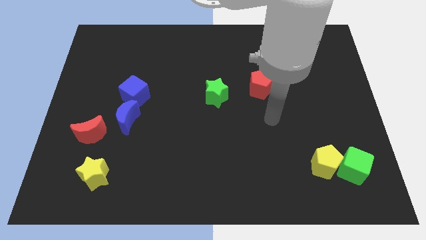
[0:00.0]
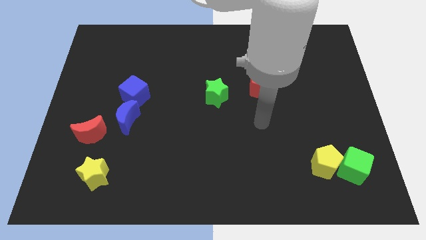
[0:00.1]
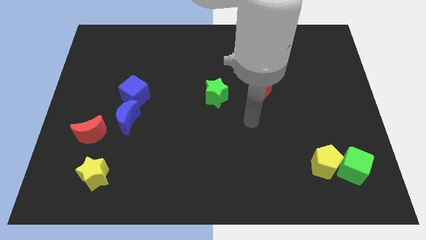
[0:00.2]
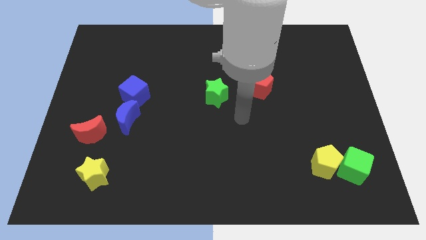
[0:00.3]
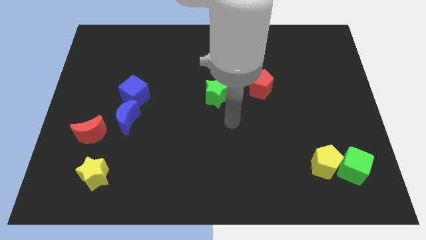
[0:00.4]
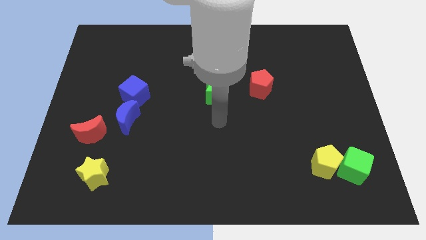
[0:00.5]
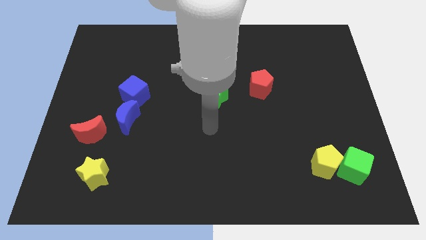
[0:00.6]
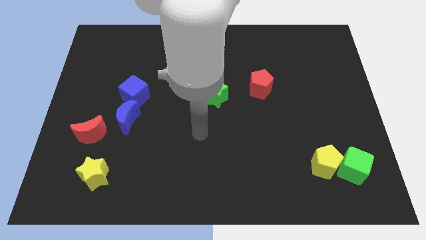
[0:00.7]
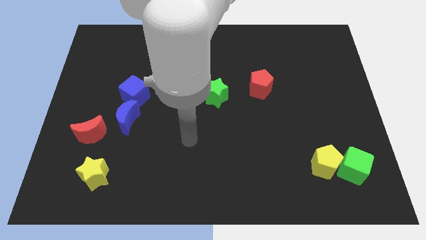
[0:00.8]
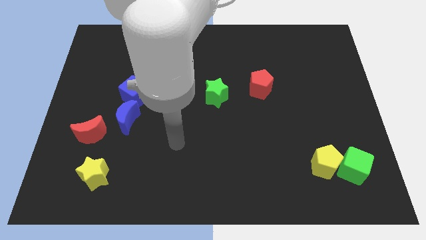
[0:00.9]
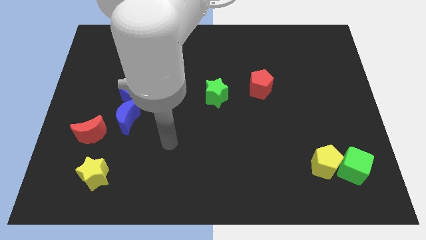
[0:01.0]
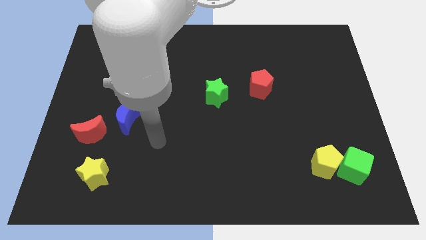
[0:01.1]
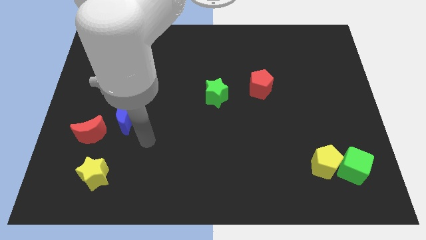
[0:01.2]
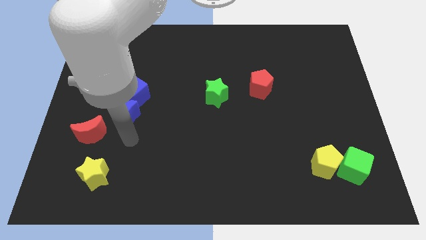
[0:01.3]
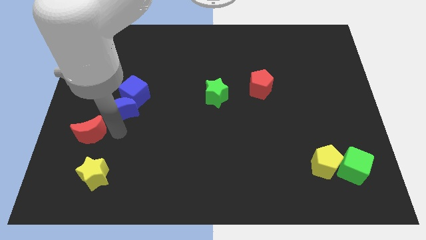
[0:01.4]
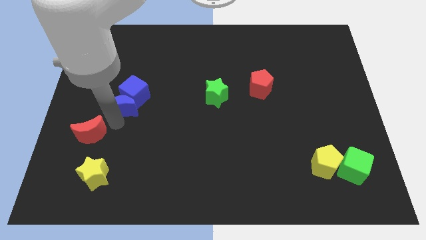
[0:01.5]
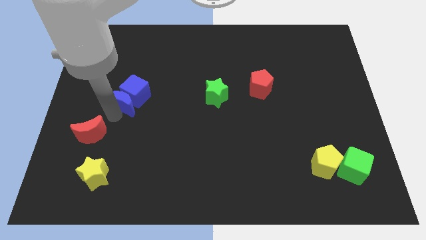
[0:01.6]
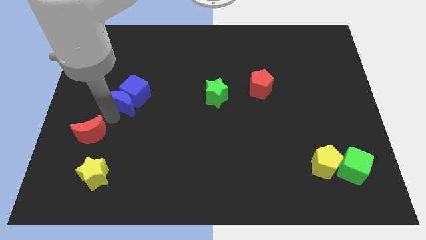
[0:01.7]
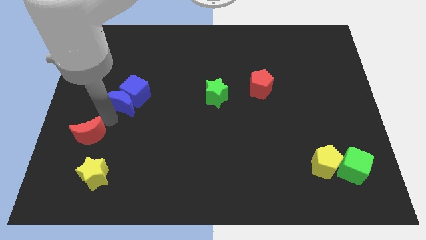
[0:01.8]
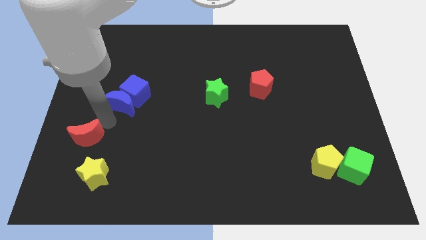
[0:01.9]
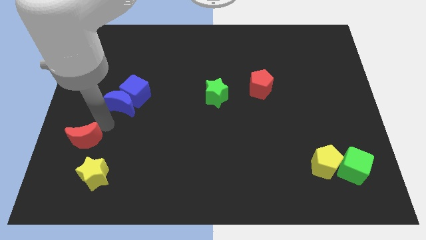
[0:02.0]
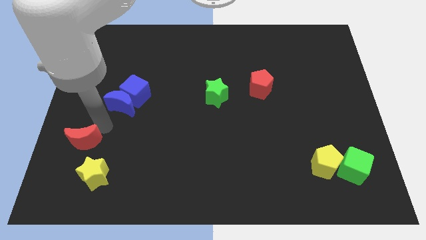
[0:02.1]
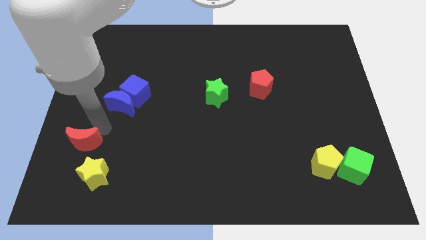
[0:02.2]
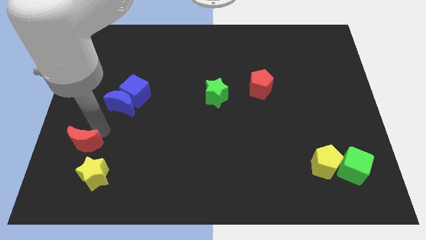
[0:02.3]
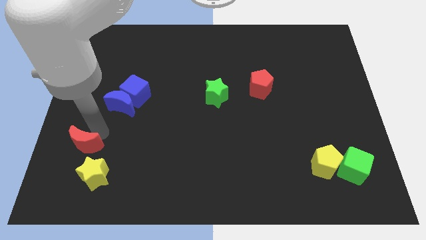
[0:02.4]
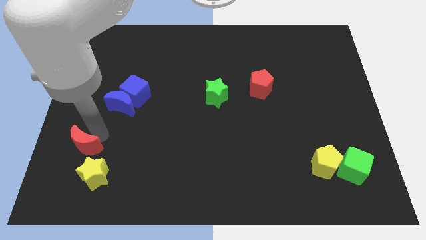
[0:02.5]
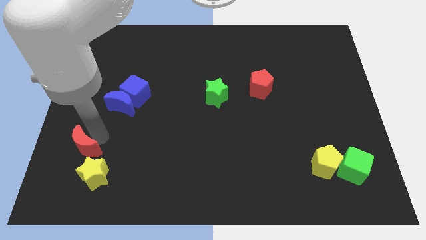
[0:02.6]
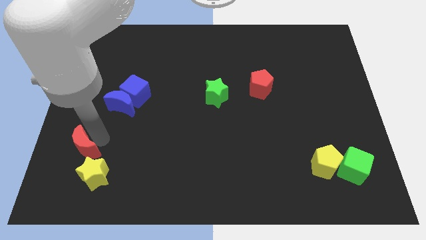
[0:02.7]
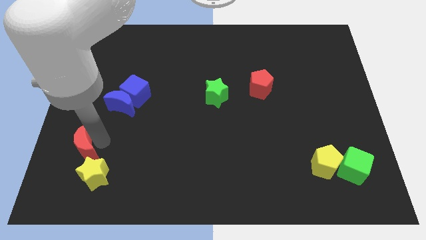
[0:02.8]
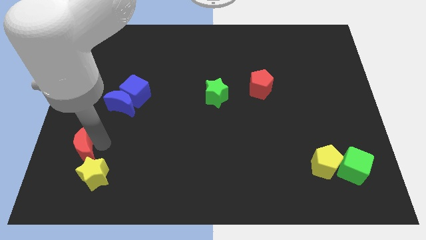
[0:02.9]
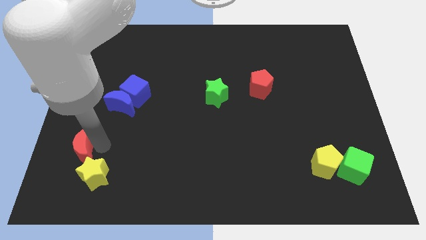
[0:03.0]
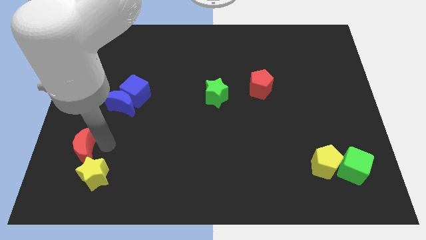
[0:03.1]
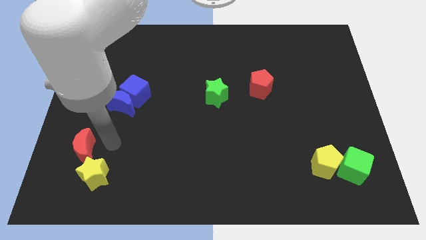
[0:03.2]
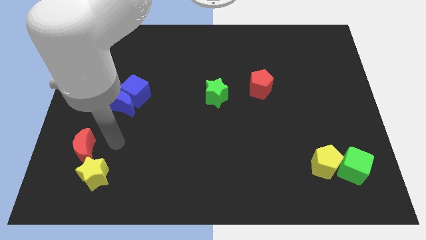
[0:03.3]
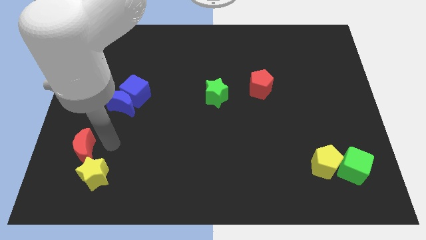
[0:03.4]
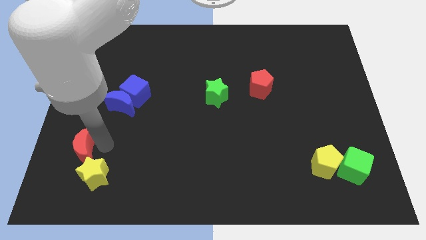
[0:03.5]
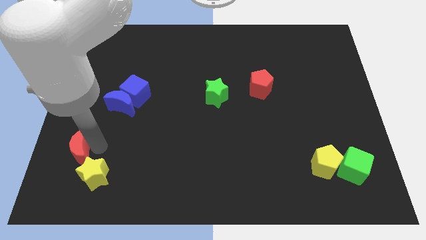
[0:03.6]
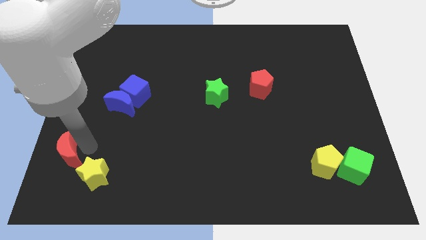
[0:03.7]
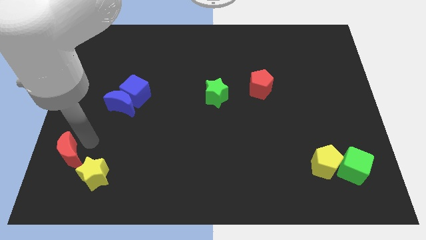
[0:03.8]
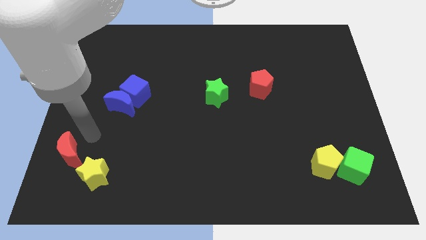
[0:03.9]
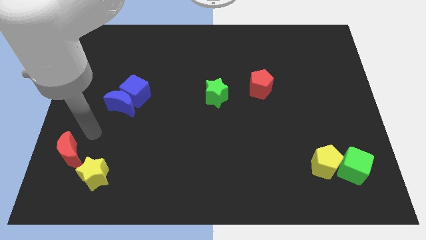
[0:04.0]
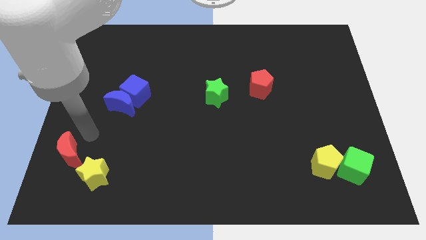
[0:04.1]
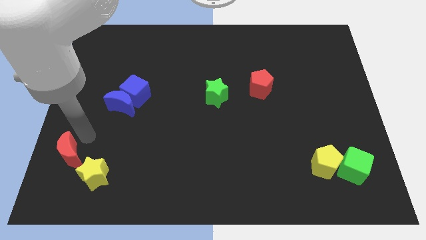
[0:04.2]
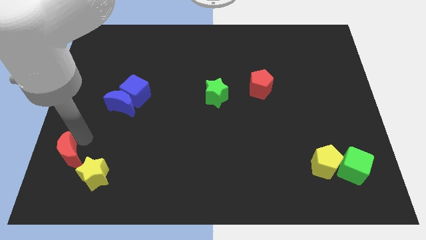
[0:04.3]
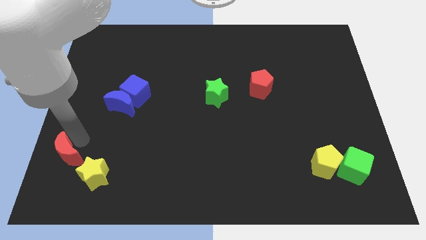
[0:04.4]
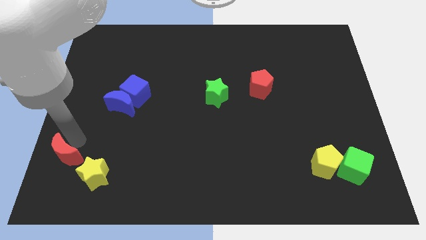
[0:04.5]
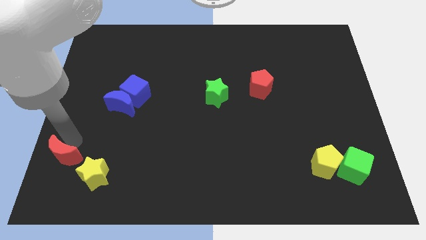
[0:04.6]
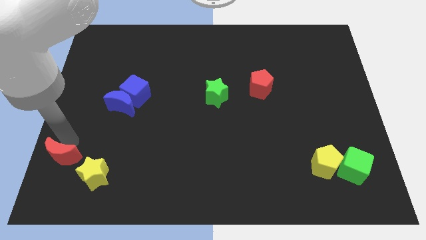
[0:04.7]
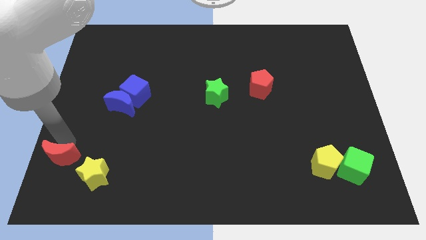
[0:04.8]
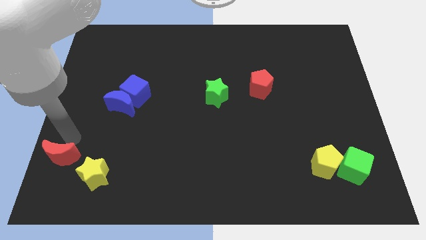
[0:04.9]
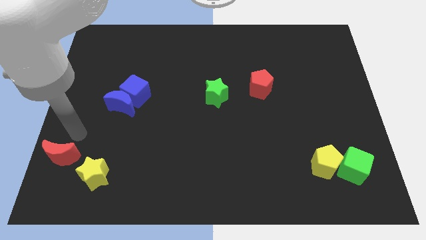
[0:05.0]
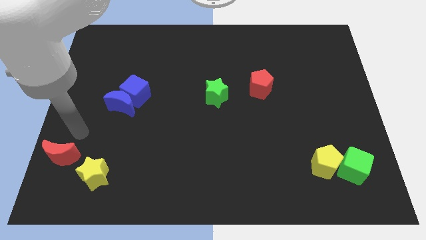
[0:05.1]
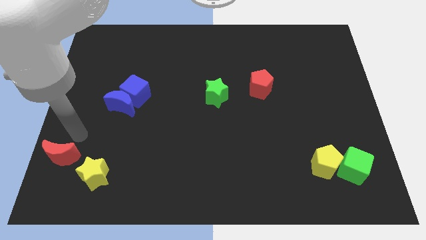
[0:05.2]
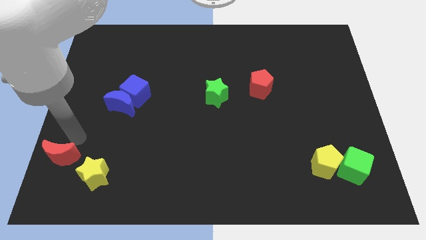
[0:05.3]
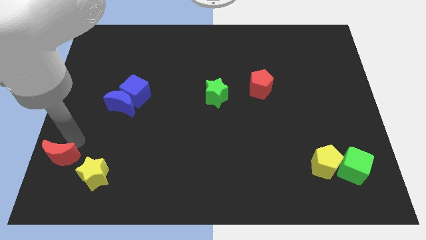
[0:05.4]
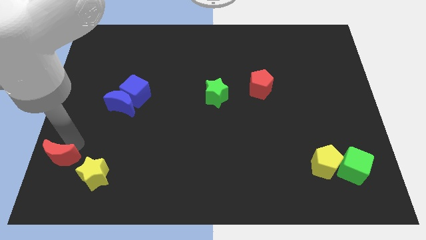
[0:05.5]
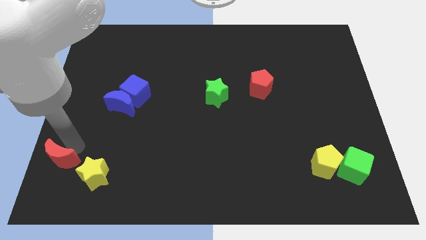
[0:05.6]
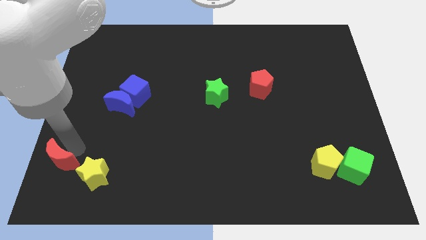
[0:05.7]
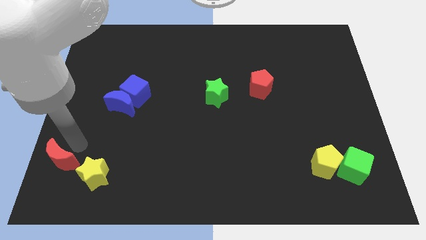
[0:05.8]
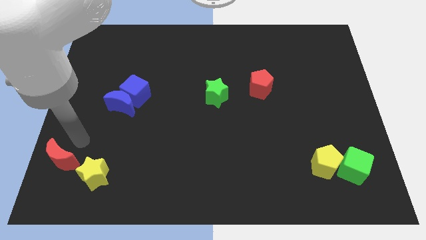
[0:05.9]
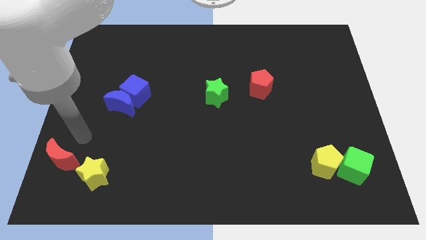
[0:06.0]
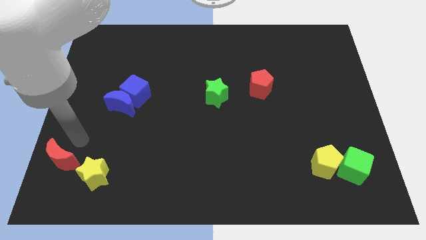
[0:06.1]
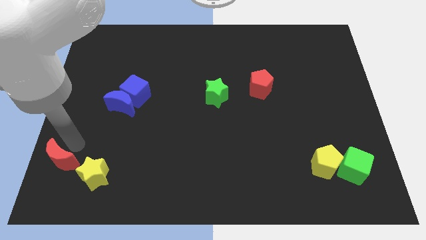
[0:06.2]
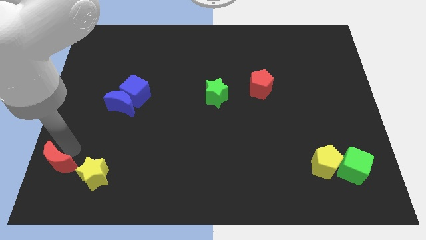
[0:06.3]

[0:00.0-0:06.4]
put the red moon to the bottom left corner
